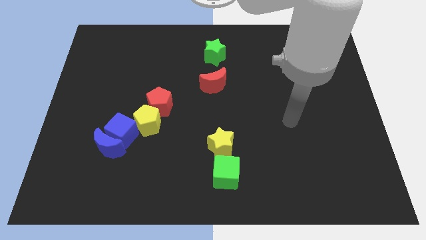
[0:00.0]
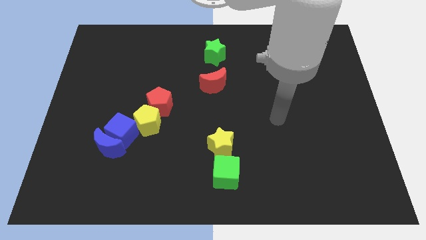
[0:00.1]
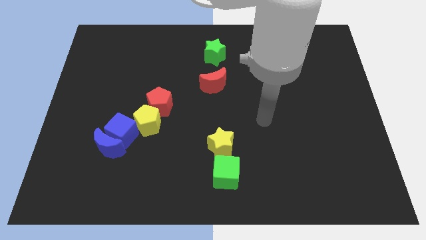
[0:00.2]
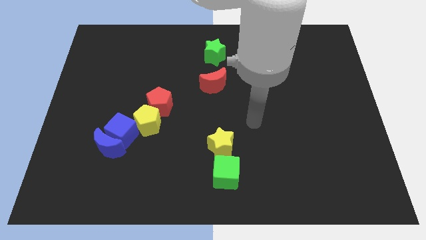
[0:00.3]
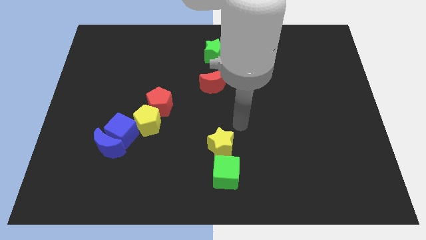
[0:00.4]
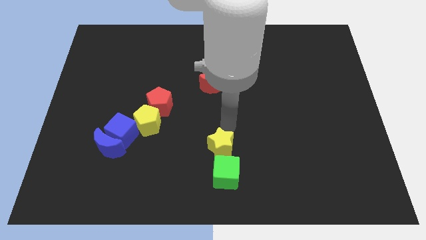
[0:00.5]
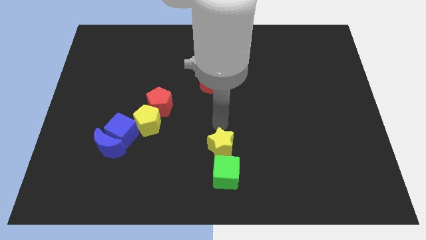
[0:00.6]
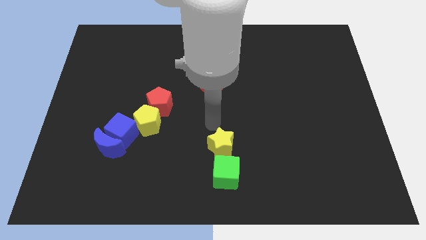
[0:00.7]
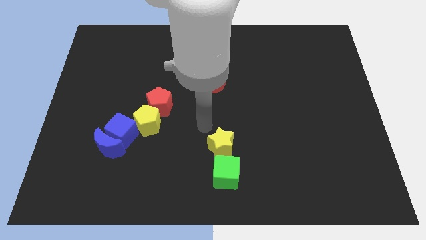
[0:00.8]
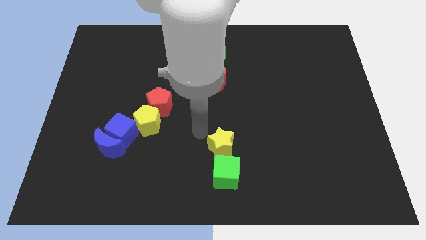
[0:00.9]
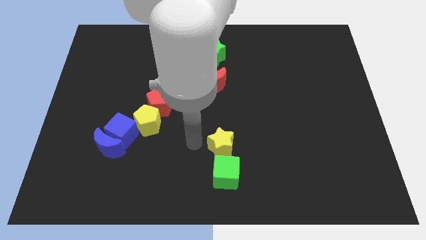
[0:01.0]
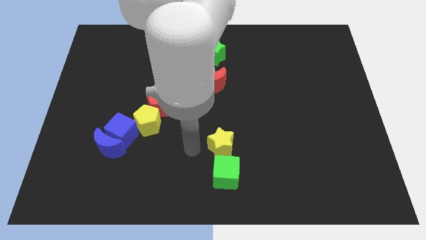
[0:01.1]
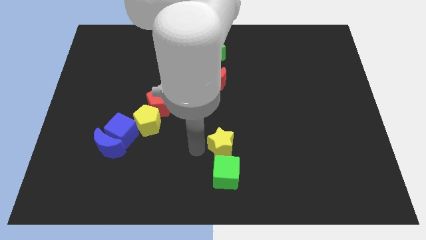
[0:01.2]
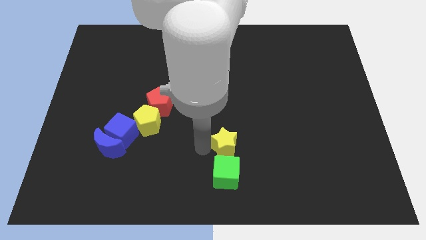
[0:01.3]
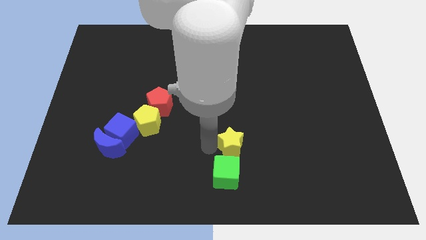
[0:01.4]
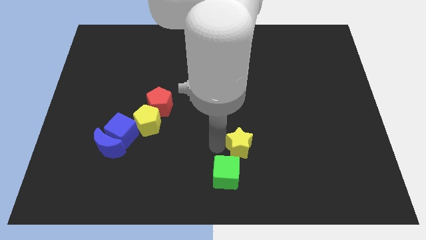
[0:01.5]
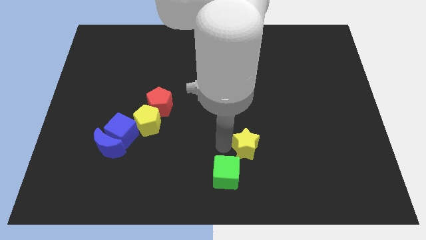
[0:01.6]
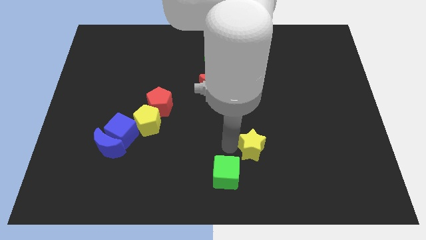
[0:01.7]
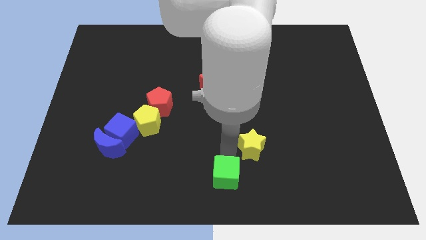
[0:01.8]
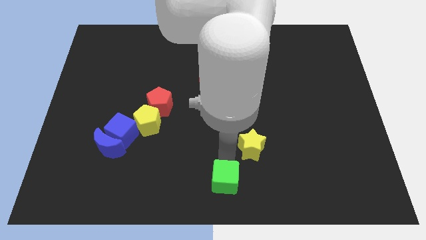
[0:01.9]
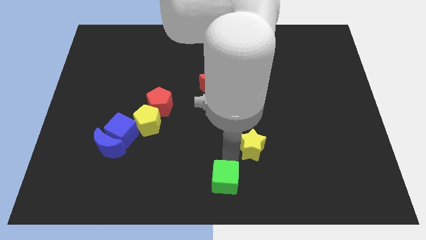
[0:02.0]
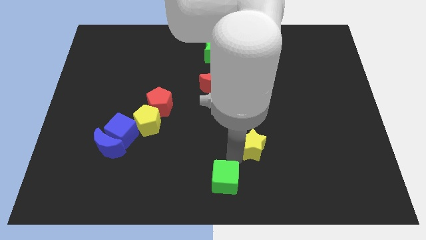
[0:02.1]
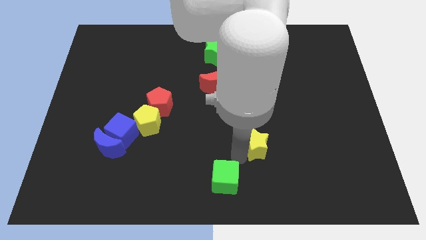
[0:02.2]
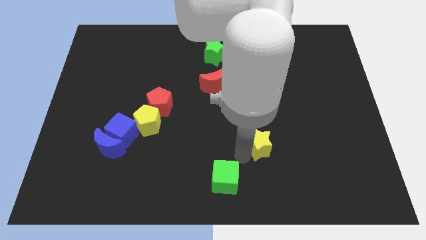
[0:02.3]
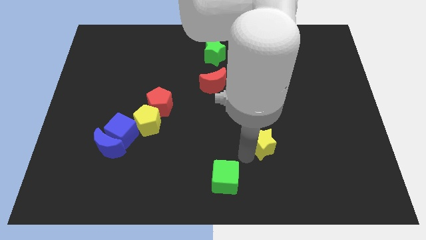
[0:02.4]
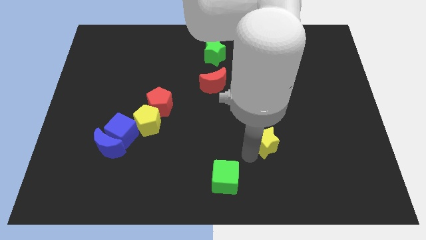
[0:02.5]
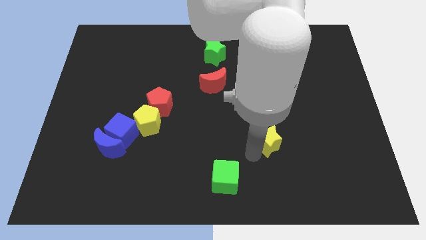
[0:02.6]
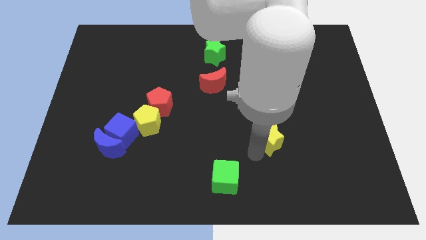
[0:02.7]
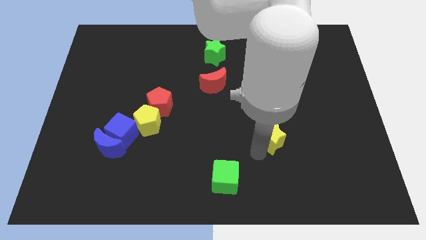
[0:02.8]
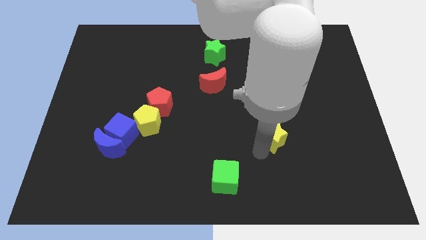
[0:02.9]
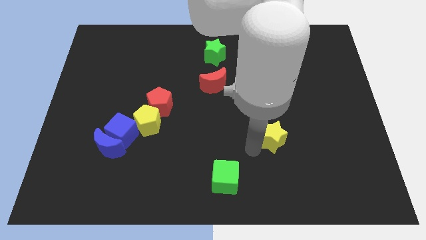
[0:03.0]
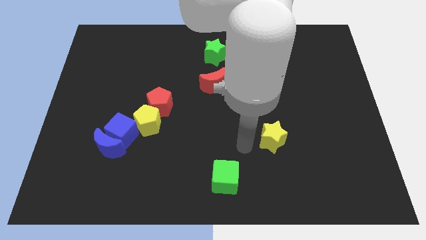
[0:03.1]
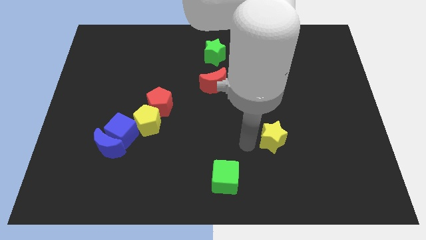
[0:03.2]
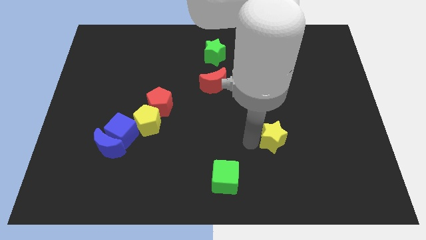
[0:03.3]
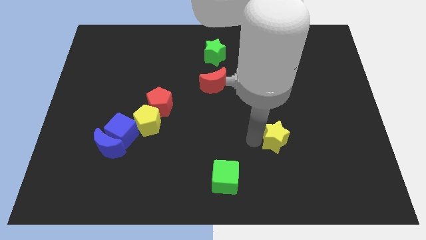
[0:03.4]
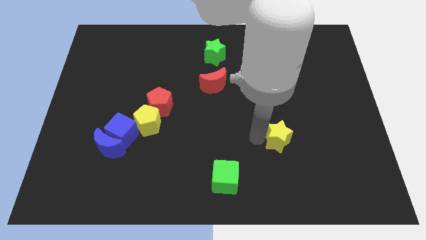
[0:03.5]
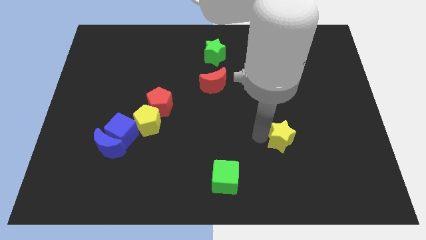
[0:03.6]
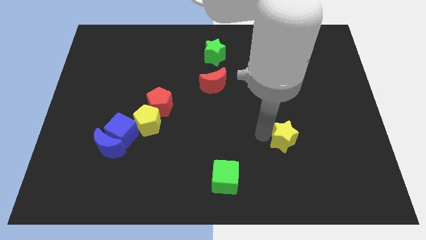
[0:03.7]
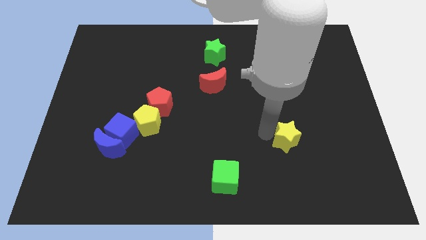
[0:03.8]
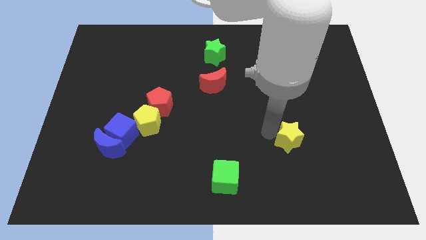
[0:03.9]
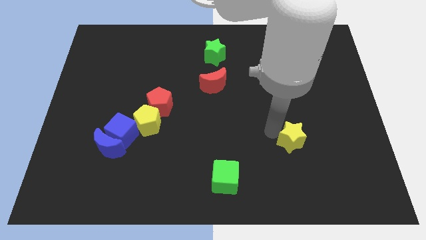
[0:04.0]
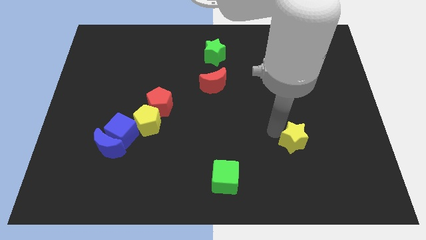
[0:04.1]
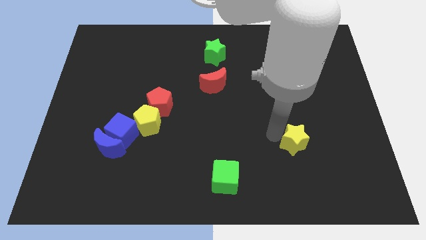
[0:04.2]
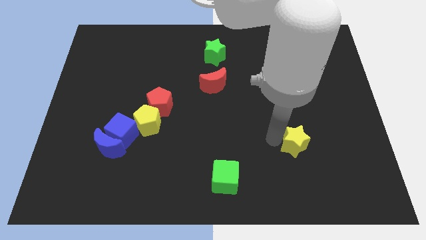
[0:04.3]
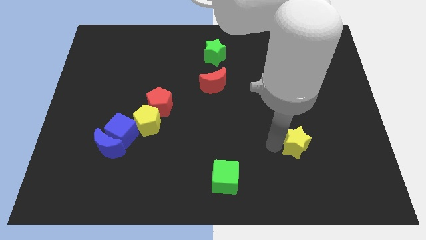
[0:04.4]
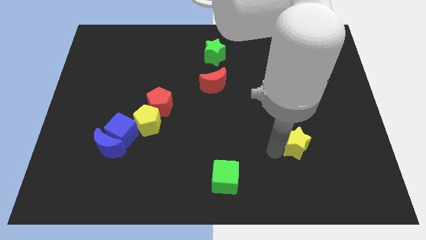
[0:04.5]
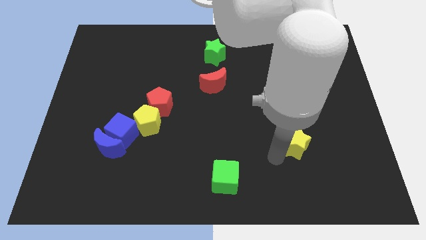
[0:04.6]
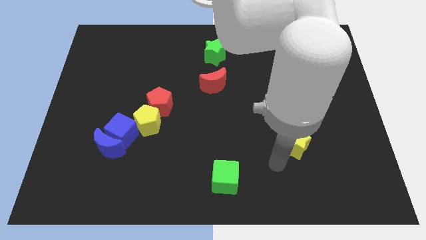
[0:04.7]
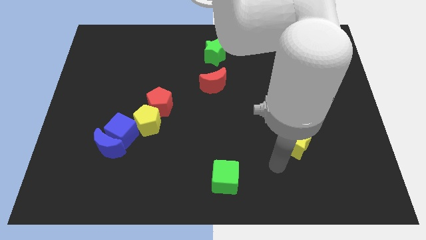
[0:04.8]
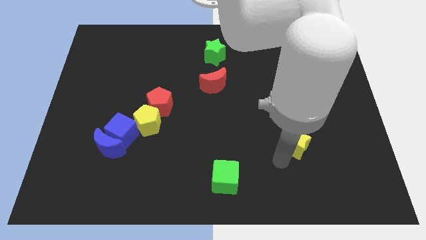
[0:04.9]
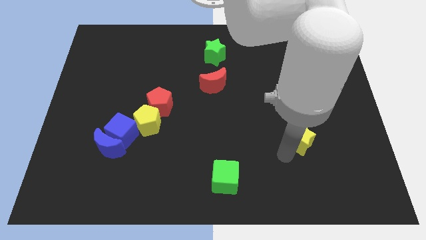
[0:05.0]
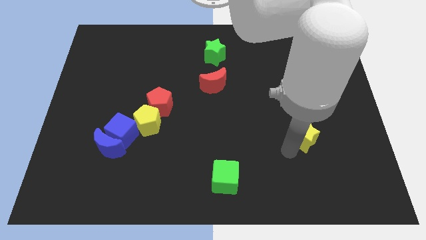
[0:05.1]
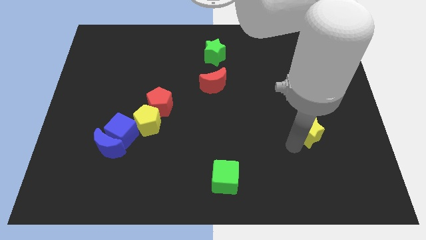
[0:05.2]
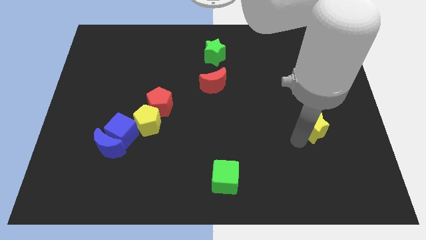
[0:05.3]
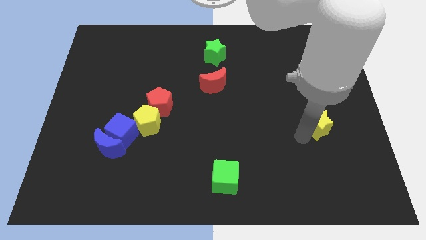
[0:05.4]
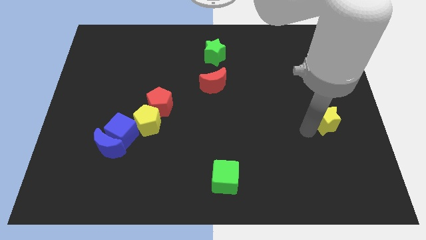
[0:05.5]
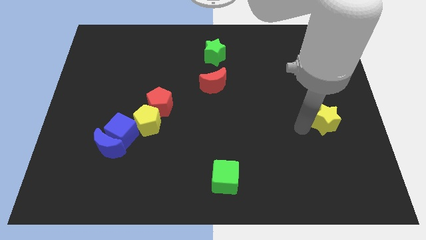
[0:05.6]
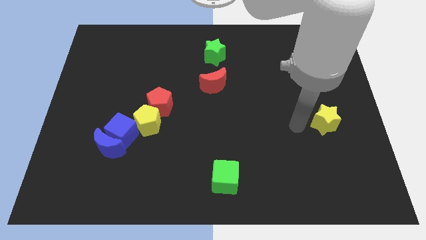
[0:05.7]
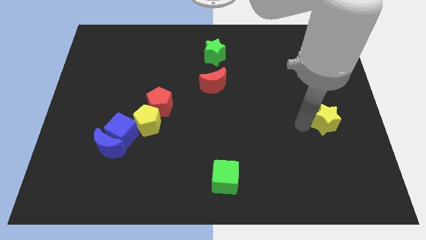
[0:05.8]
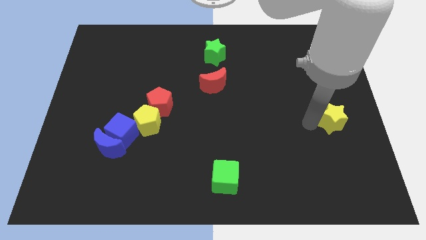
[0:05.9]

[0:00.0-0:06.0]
move the yellow star to the right side of the board

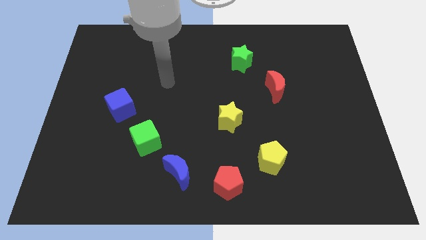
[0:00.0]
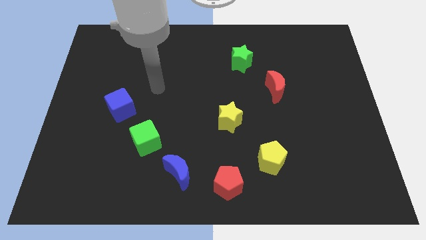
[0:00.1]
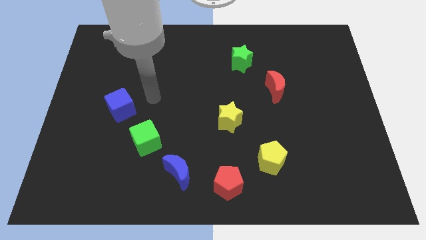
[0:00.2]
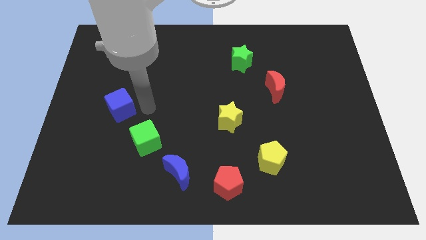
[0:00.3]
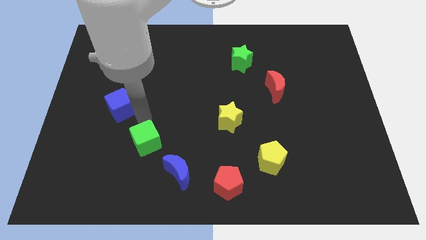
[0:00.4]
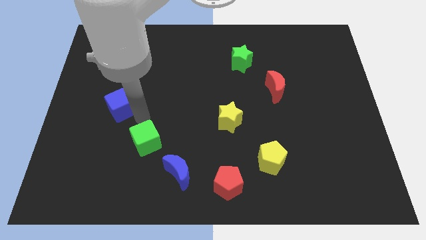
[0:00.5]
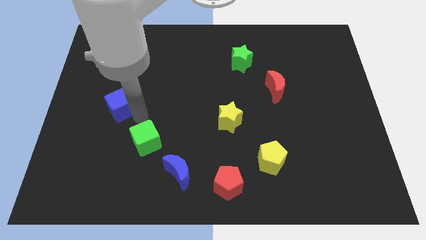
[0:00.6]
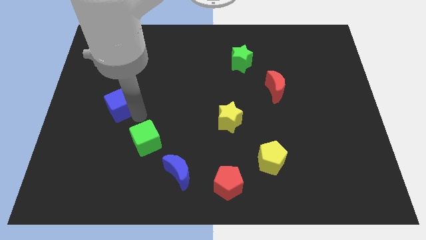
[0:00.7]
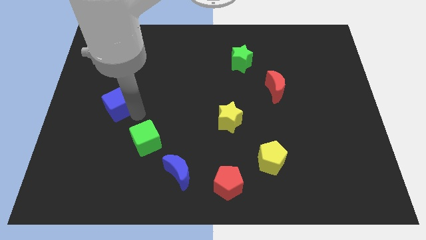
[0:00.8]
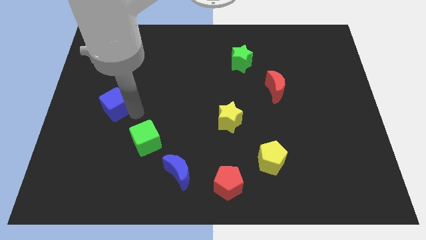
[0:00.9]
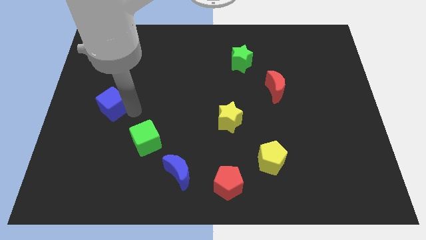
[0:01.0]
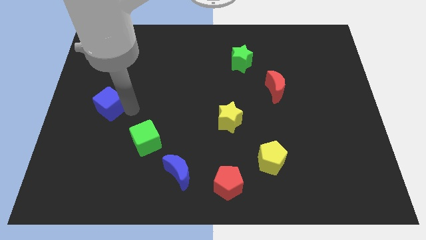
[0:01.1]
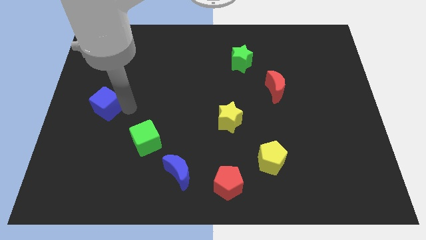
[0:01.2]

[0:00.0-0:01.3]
put the blue cube to the left side
